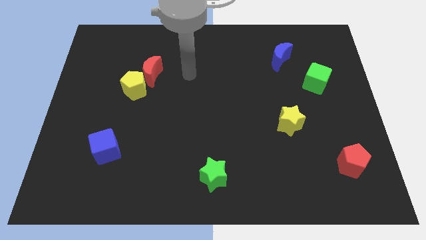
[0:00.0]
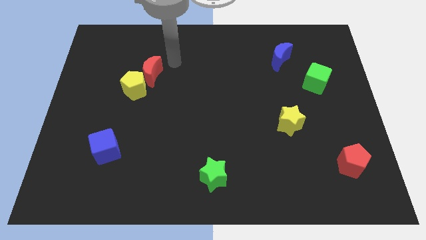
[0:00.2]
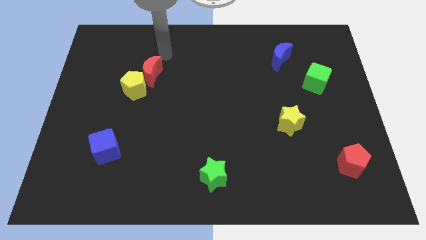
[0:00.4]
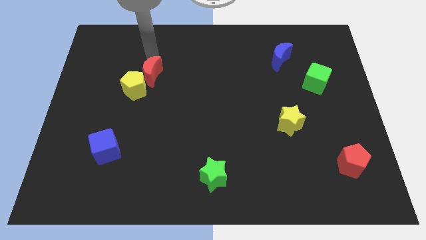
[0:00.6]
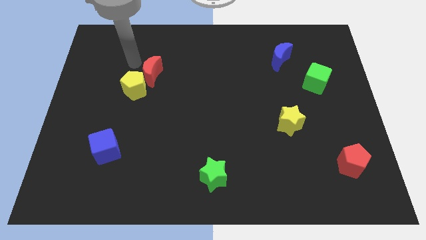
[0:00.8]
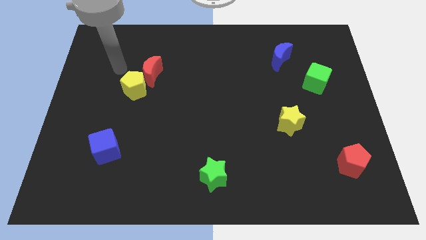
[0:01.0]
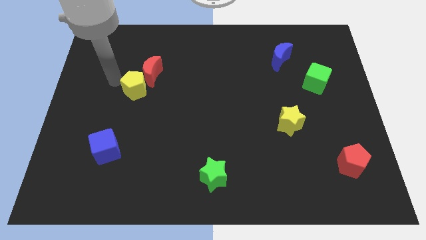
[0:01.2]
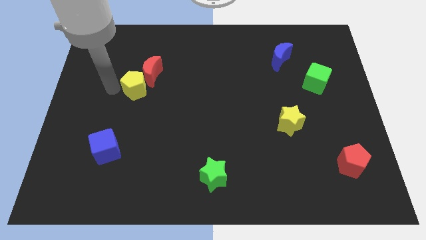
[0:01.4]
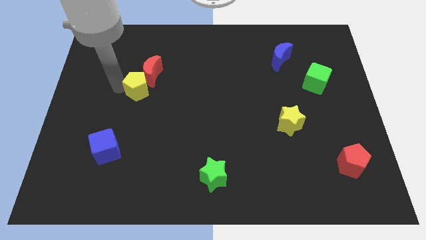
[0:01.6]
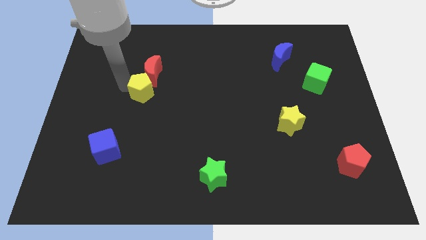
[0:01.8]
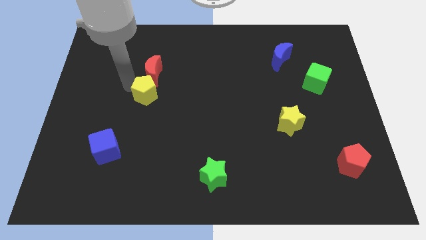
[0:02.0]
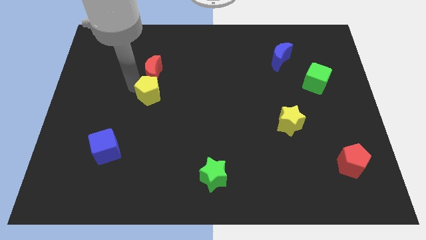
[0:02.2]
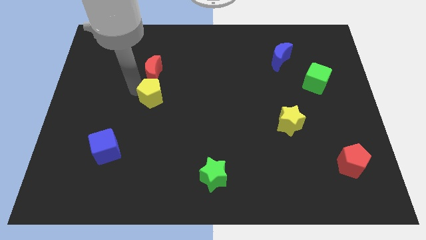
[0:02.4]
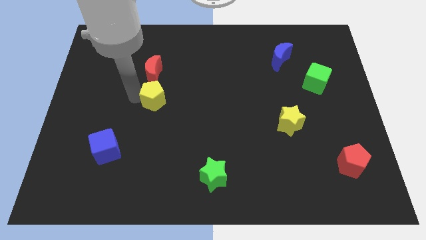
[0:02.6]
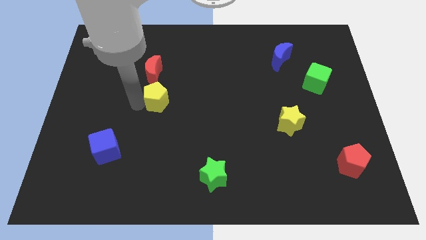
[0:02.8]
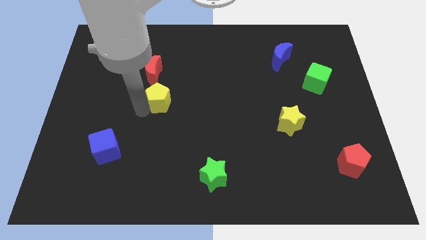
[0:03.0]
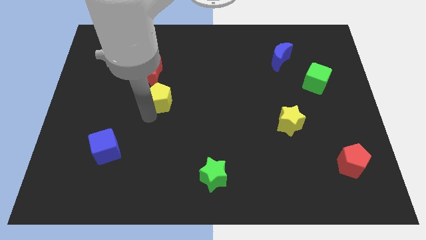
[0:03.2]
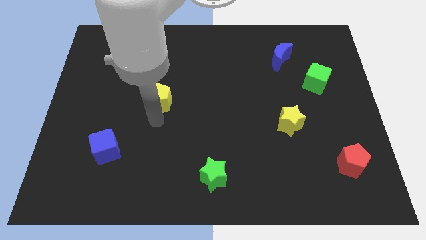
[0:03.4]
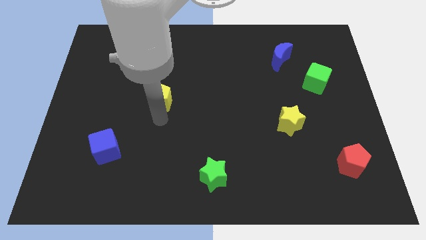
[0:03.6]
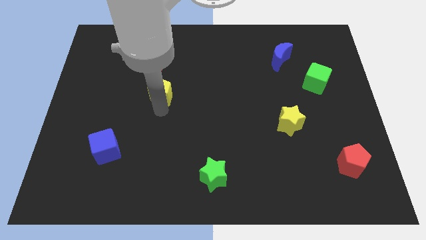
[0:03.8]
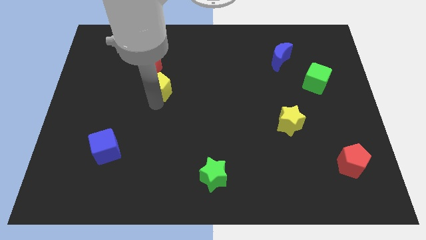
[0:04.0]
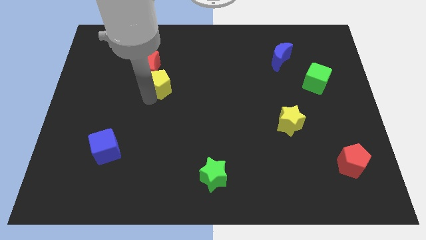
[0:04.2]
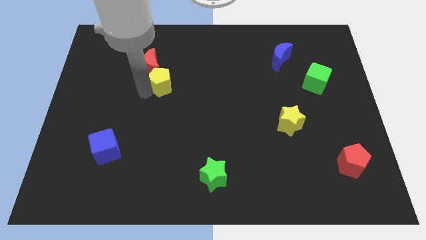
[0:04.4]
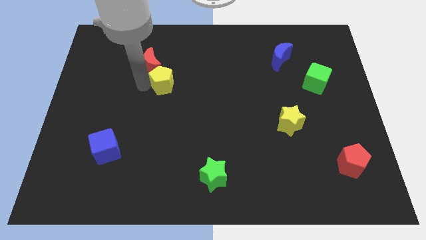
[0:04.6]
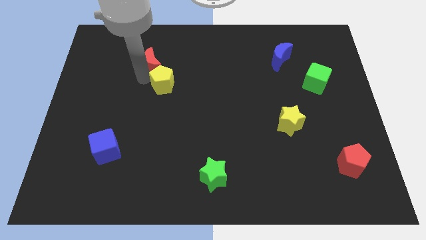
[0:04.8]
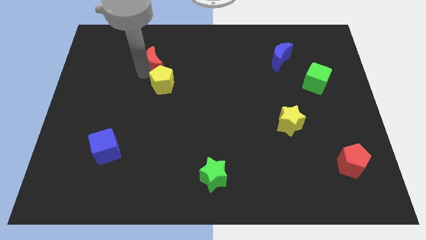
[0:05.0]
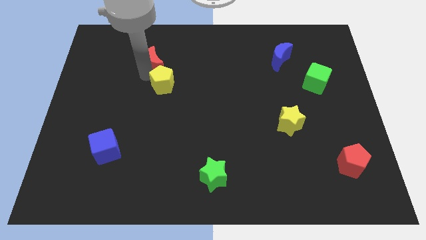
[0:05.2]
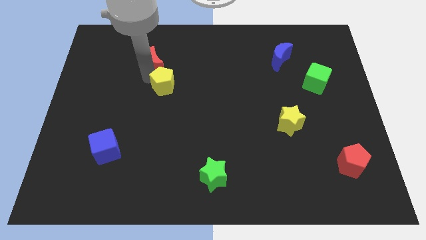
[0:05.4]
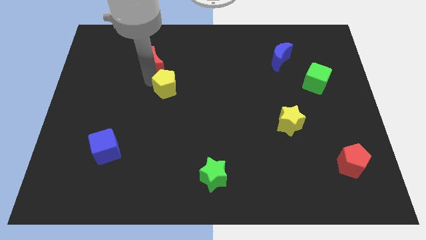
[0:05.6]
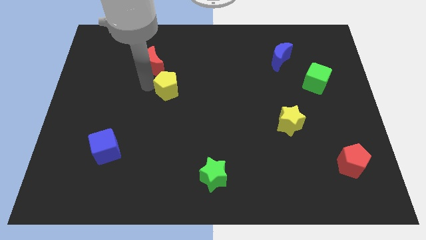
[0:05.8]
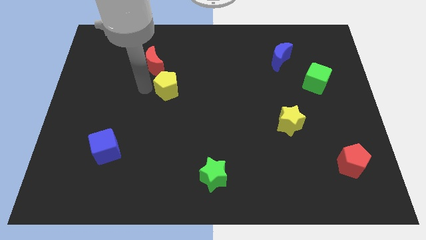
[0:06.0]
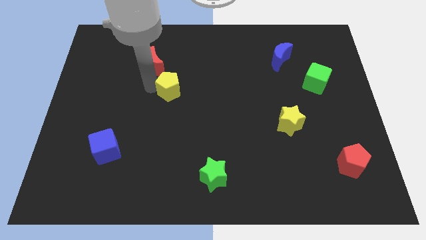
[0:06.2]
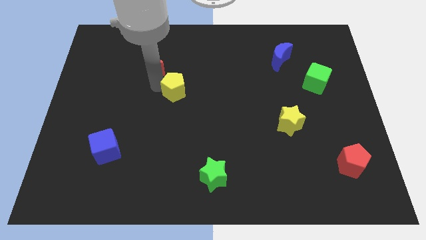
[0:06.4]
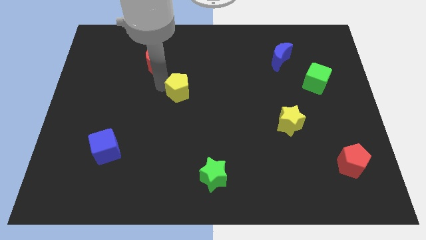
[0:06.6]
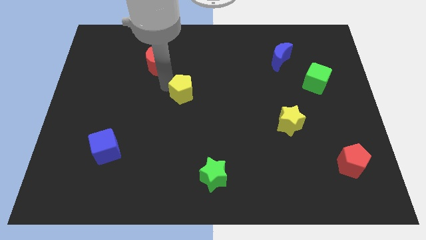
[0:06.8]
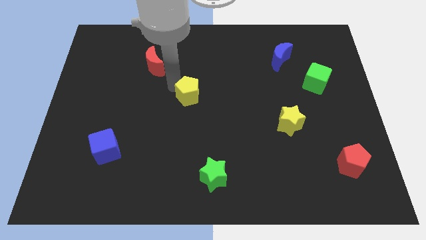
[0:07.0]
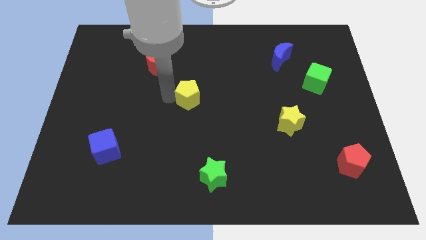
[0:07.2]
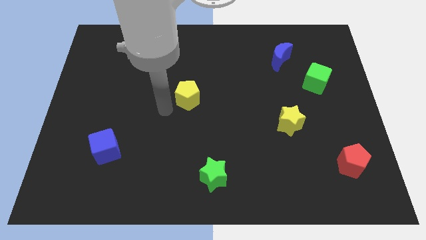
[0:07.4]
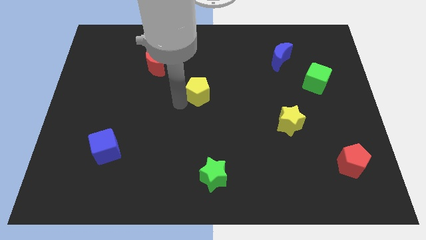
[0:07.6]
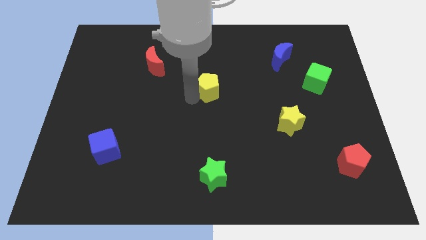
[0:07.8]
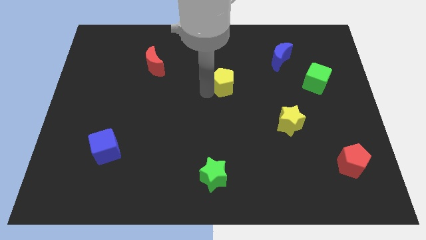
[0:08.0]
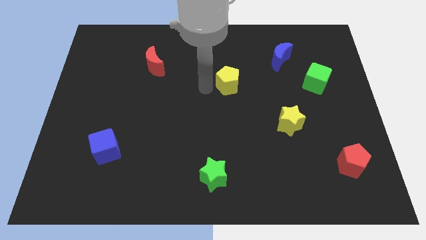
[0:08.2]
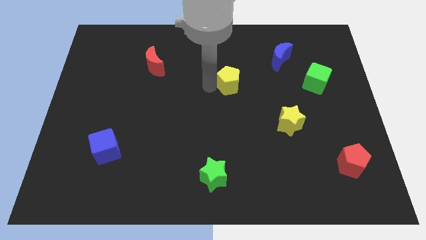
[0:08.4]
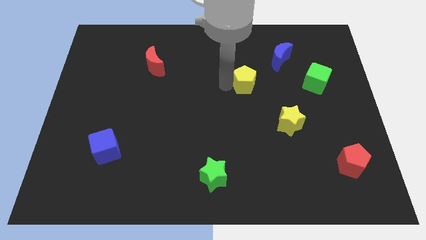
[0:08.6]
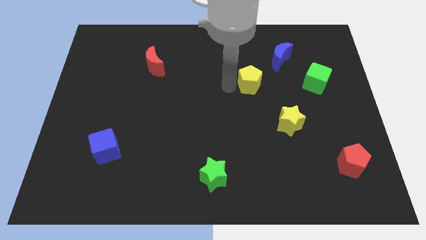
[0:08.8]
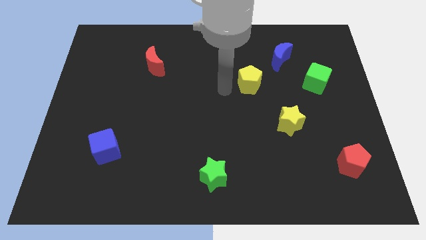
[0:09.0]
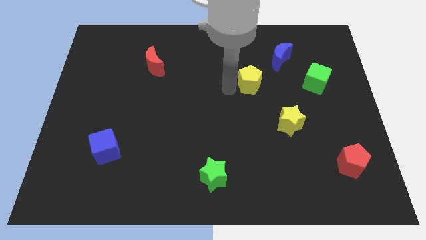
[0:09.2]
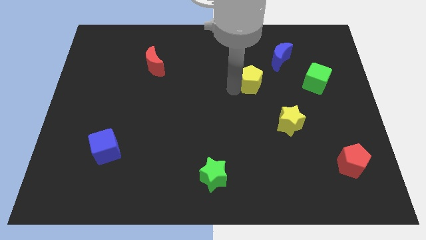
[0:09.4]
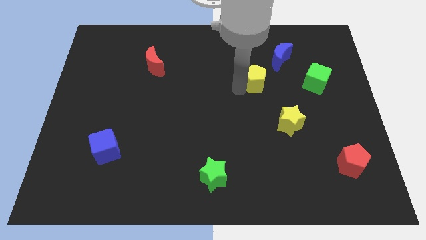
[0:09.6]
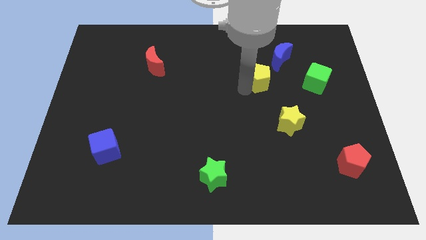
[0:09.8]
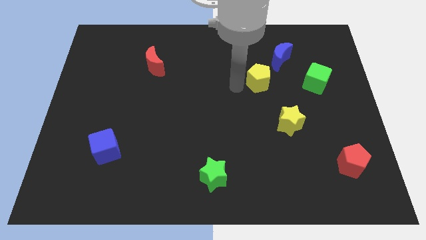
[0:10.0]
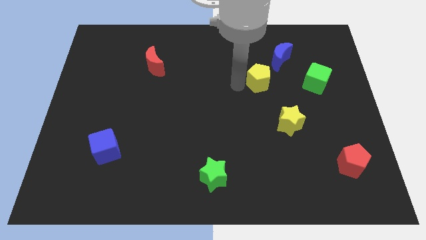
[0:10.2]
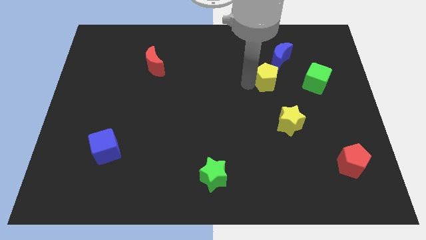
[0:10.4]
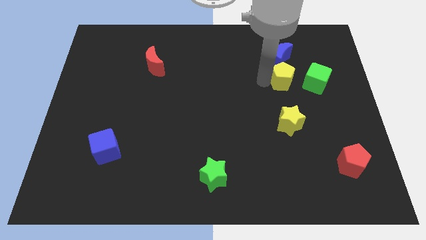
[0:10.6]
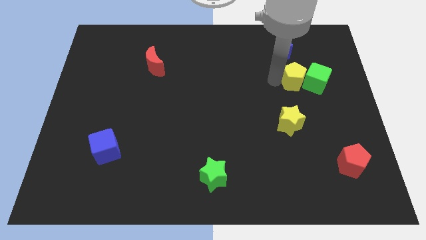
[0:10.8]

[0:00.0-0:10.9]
move the yellow pentagon close to the green cube

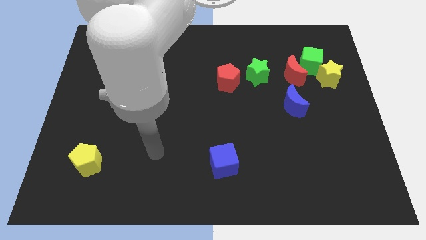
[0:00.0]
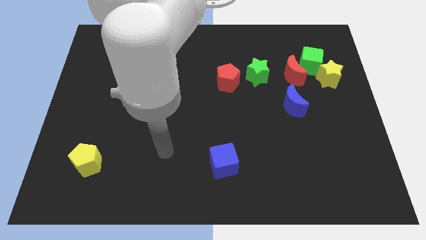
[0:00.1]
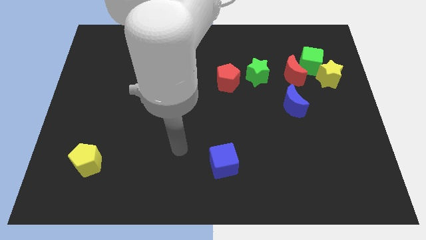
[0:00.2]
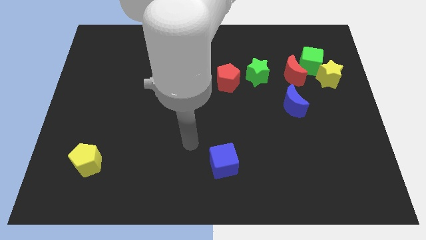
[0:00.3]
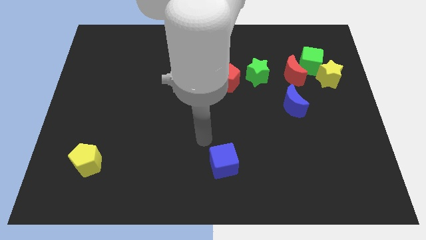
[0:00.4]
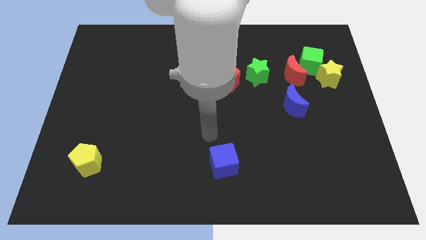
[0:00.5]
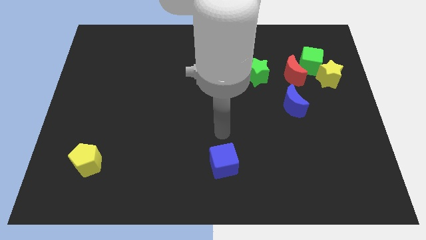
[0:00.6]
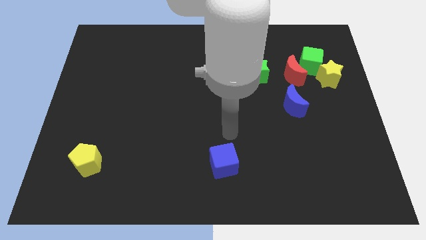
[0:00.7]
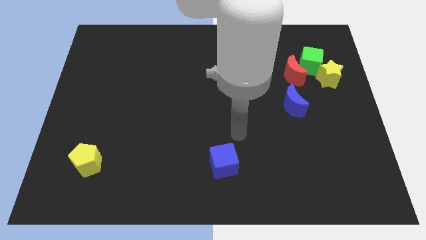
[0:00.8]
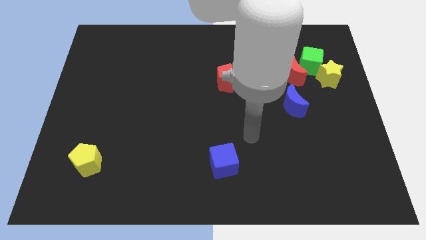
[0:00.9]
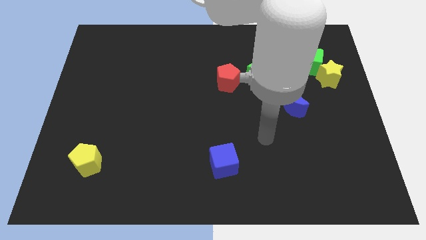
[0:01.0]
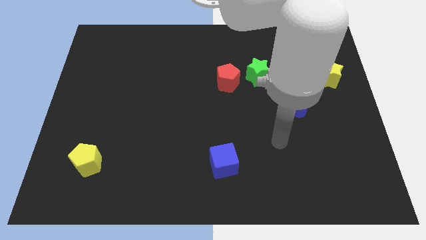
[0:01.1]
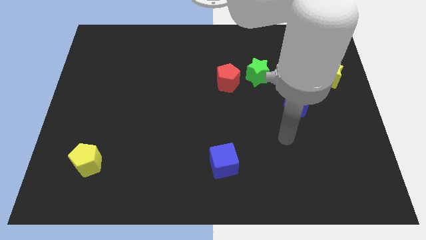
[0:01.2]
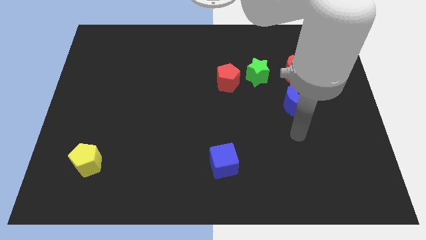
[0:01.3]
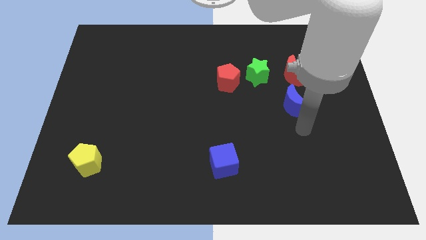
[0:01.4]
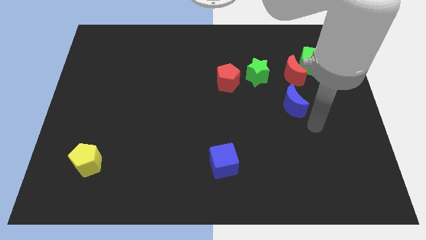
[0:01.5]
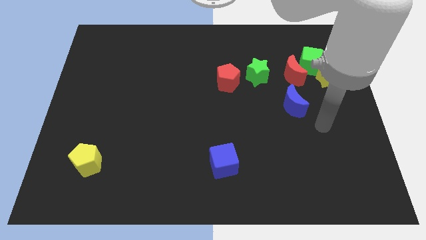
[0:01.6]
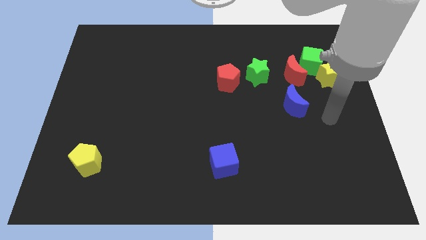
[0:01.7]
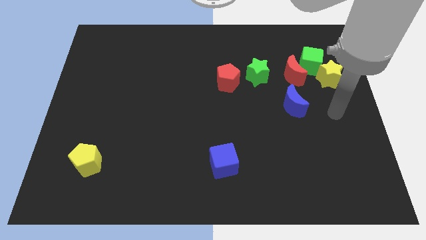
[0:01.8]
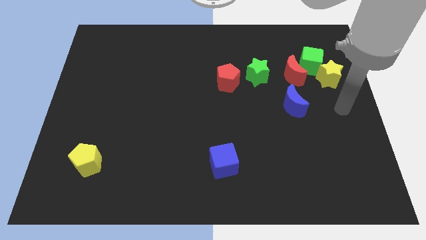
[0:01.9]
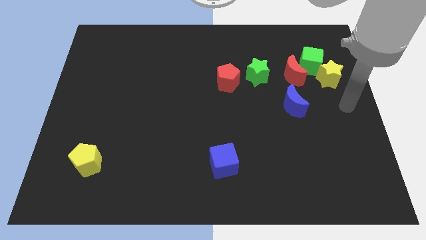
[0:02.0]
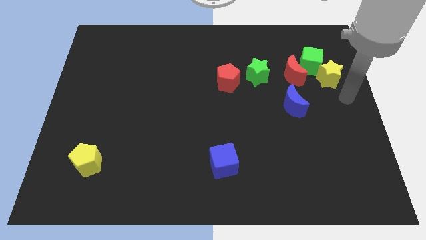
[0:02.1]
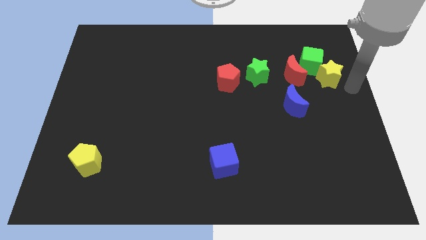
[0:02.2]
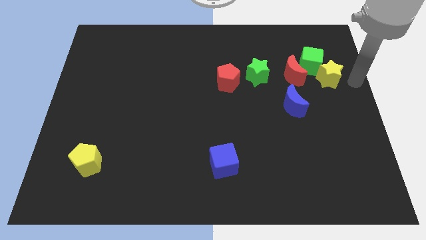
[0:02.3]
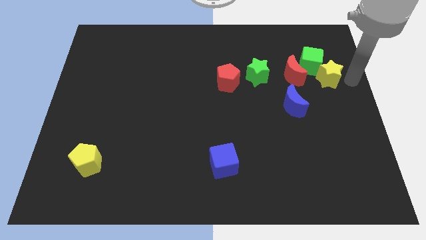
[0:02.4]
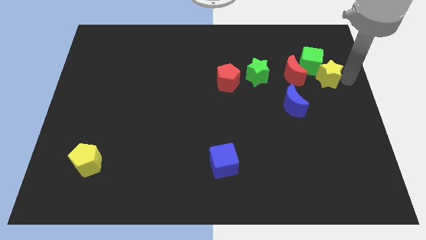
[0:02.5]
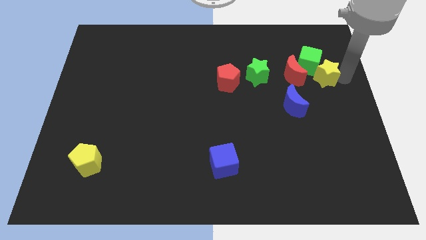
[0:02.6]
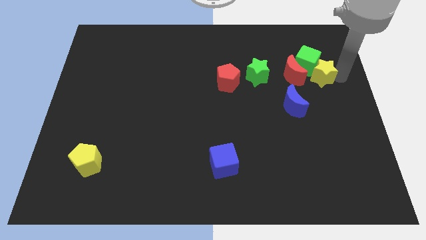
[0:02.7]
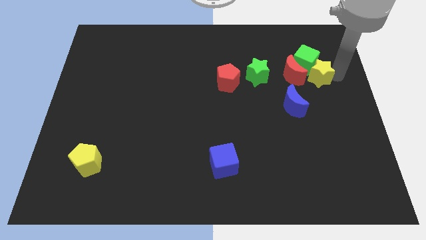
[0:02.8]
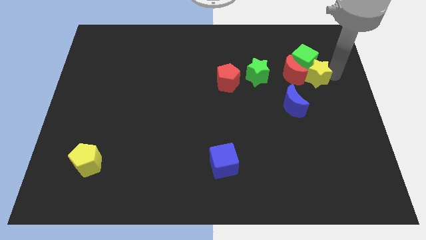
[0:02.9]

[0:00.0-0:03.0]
move the yellow star to the red moon
